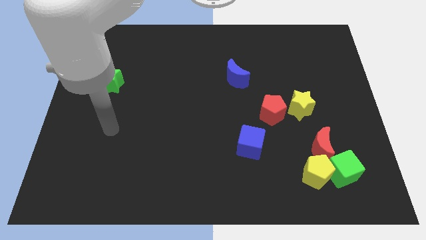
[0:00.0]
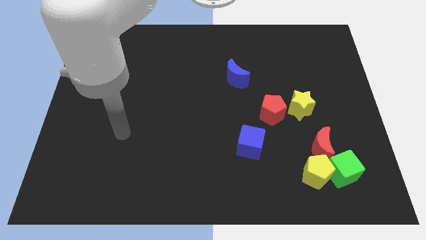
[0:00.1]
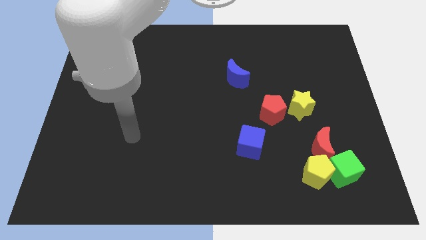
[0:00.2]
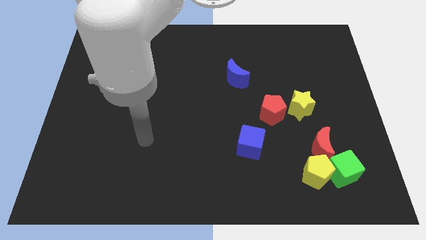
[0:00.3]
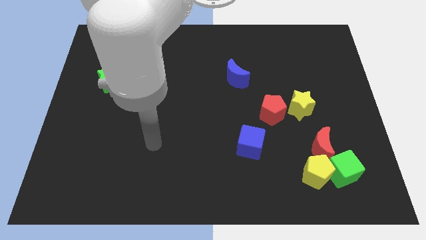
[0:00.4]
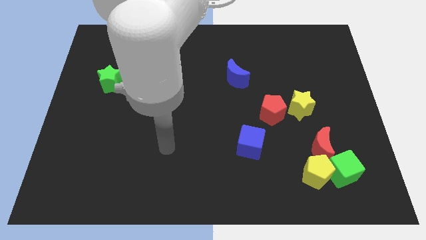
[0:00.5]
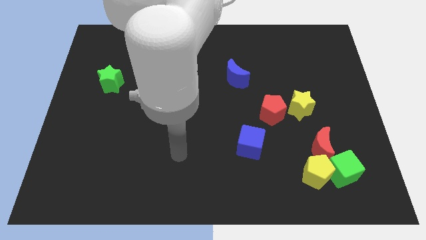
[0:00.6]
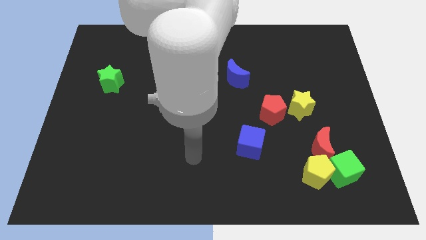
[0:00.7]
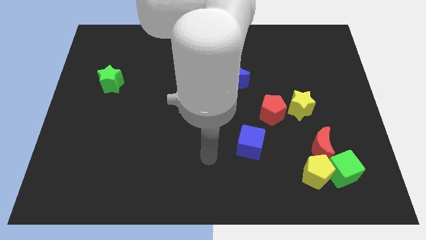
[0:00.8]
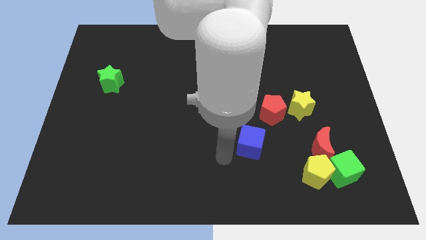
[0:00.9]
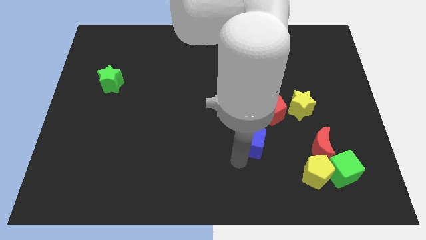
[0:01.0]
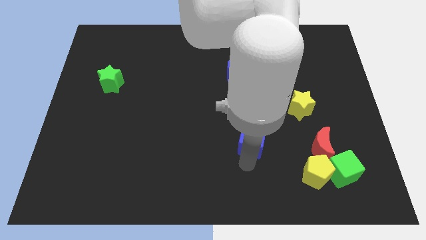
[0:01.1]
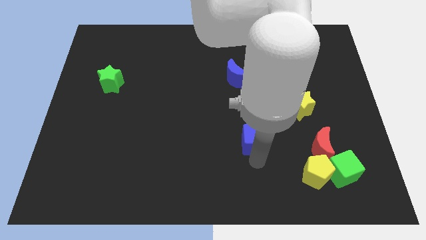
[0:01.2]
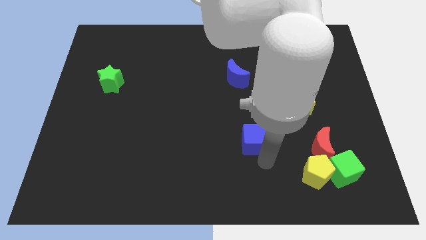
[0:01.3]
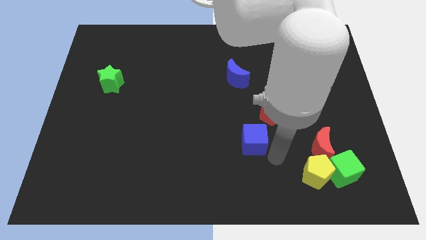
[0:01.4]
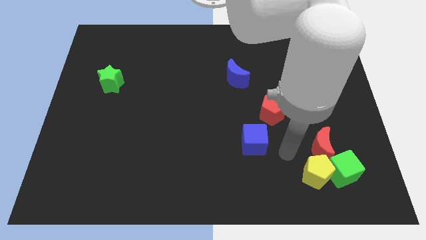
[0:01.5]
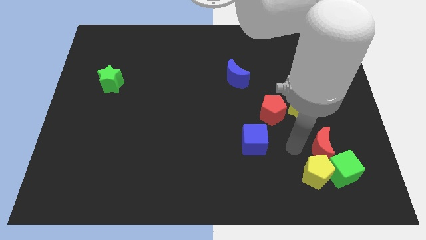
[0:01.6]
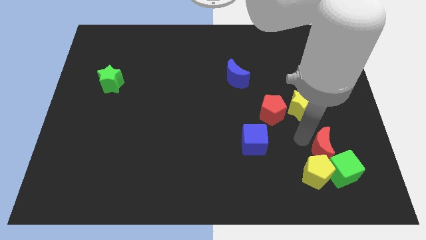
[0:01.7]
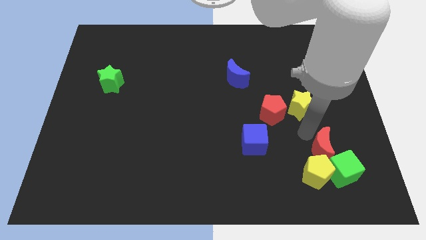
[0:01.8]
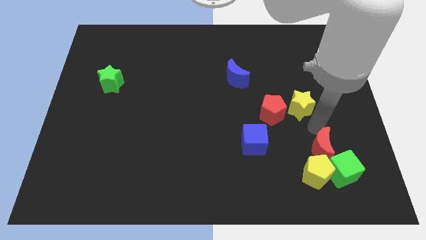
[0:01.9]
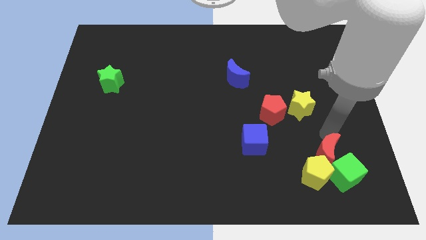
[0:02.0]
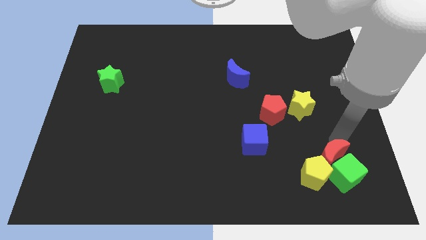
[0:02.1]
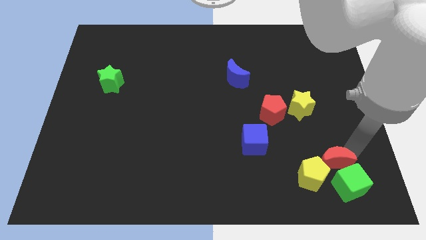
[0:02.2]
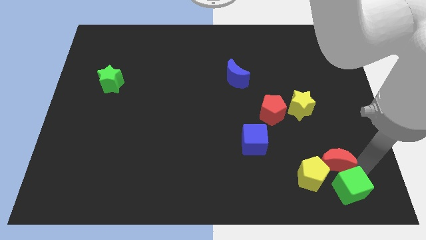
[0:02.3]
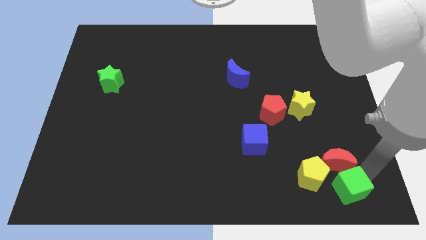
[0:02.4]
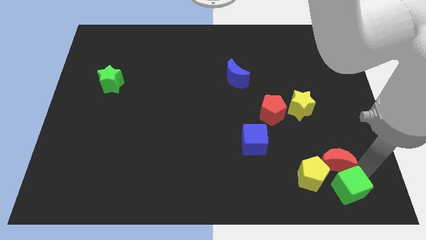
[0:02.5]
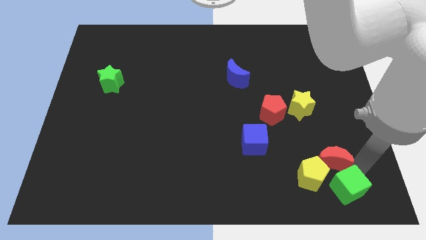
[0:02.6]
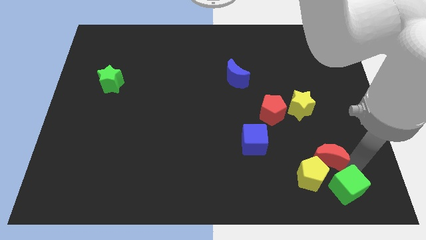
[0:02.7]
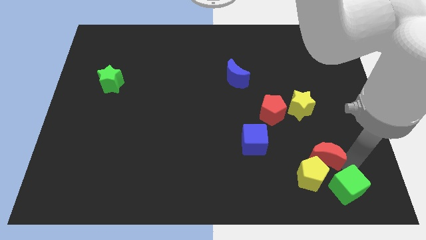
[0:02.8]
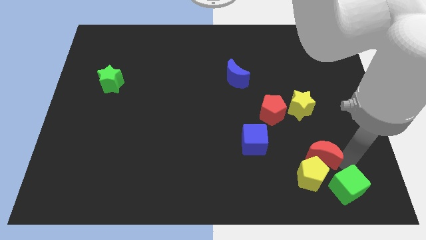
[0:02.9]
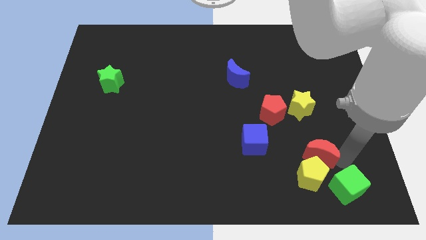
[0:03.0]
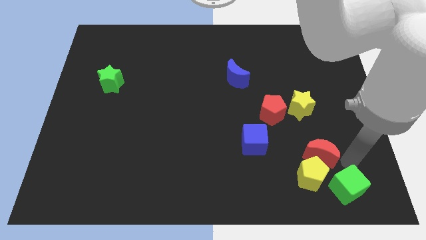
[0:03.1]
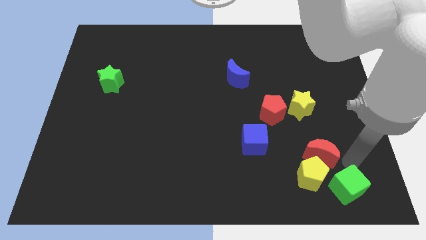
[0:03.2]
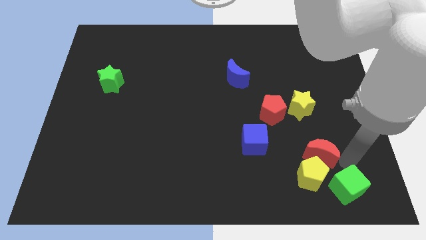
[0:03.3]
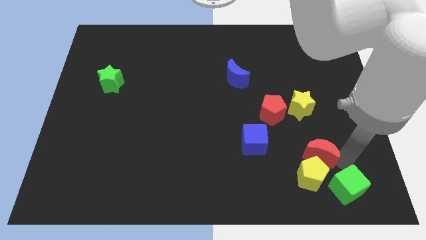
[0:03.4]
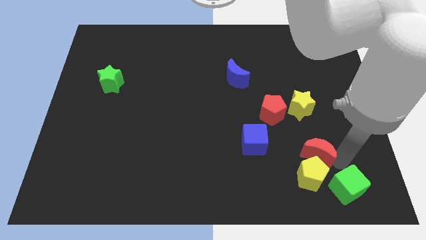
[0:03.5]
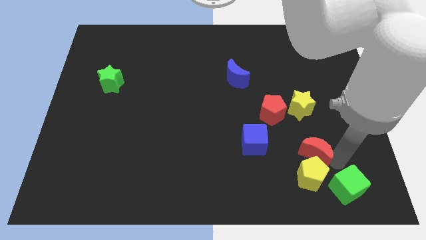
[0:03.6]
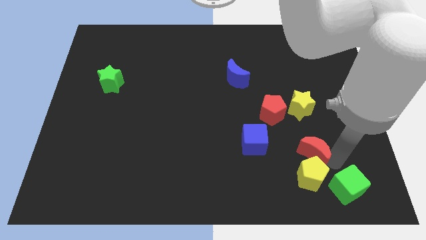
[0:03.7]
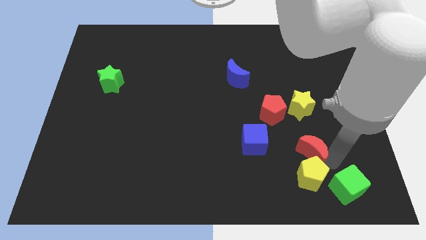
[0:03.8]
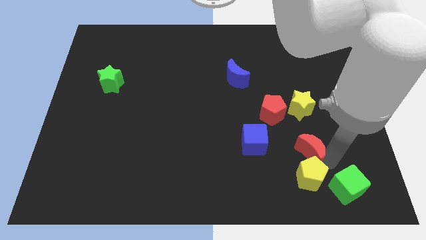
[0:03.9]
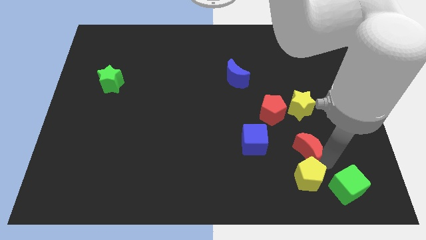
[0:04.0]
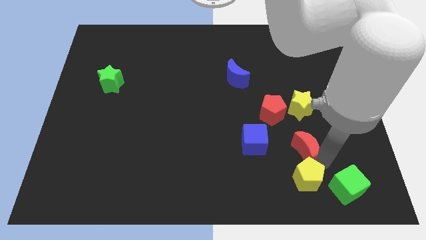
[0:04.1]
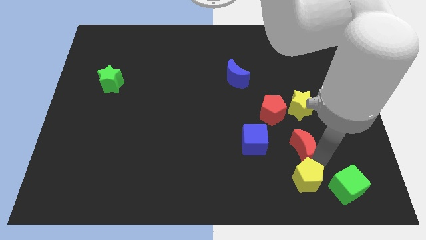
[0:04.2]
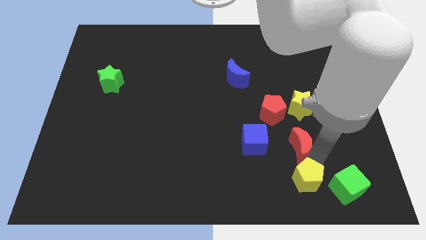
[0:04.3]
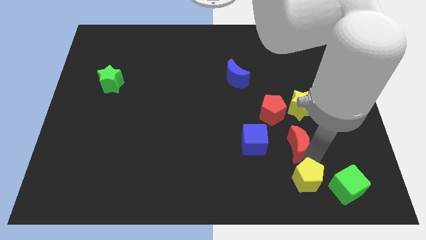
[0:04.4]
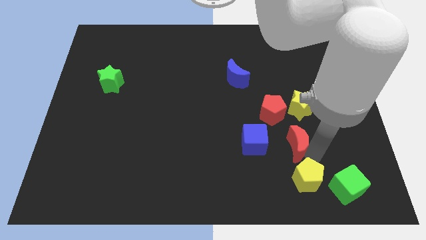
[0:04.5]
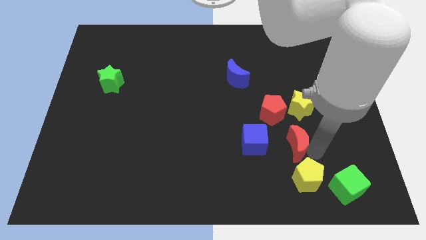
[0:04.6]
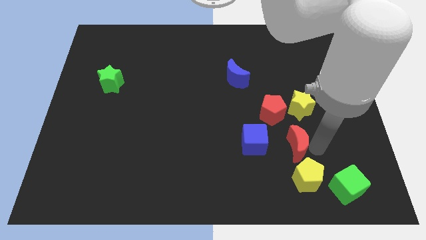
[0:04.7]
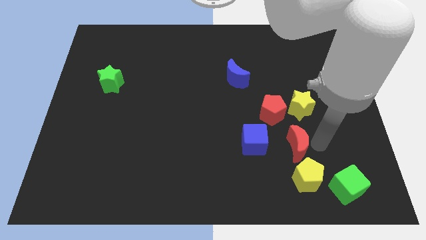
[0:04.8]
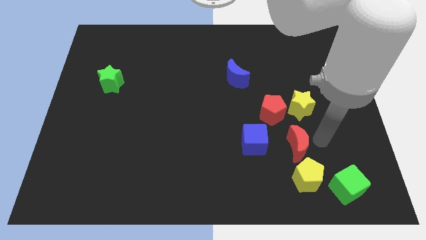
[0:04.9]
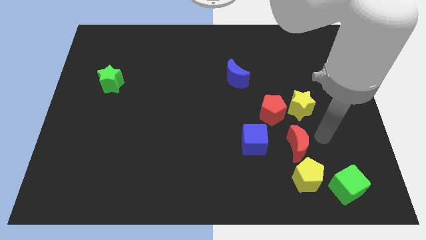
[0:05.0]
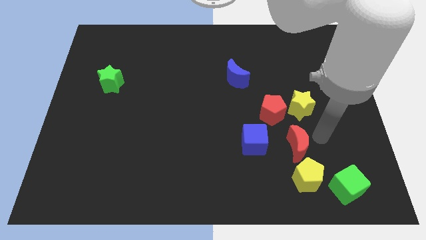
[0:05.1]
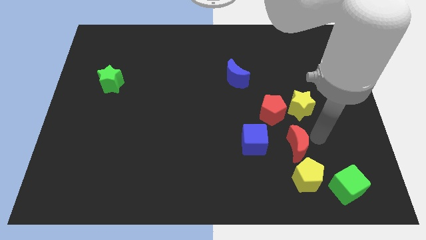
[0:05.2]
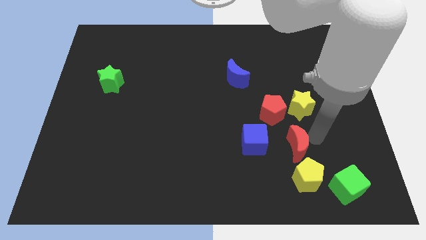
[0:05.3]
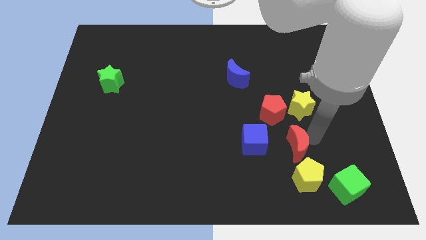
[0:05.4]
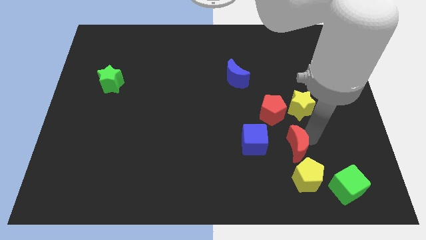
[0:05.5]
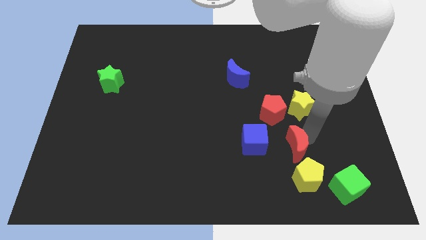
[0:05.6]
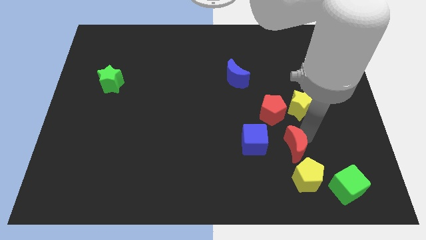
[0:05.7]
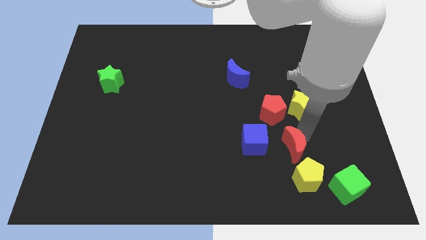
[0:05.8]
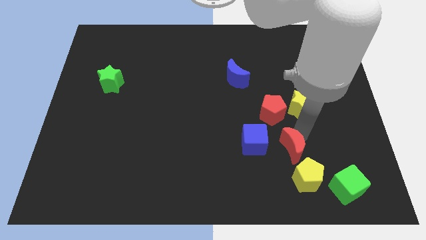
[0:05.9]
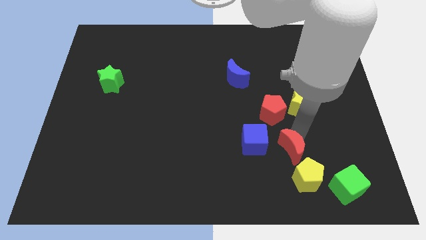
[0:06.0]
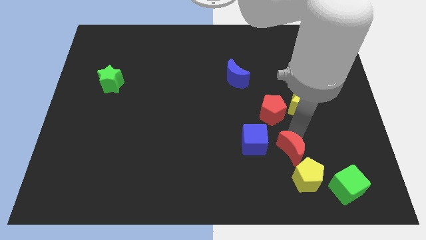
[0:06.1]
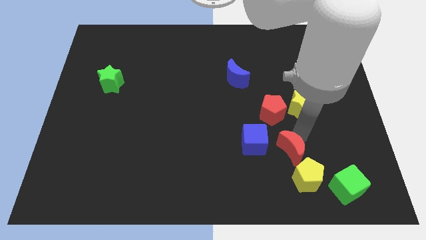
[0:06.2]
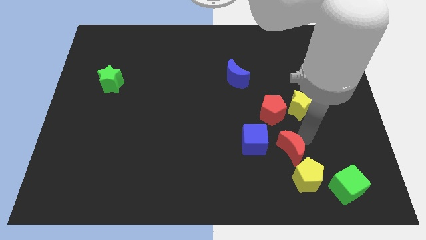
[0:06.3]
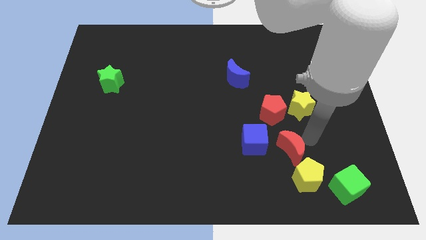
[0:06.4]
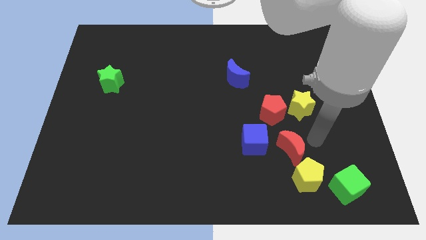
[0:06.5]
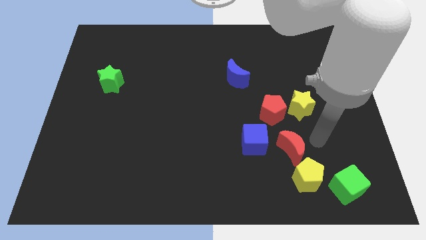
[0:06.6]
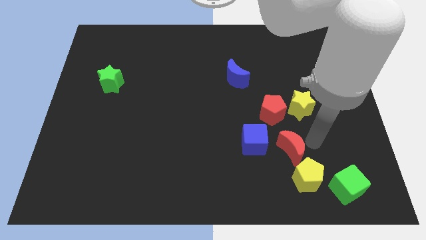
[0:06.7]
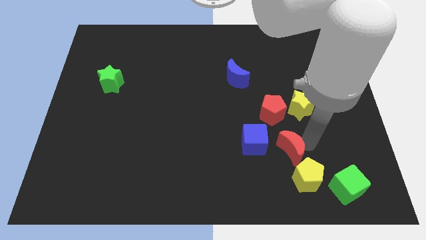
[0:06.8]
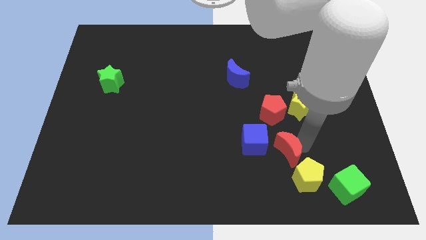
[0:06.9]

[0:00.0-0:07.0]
slightly move the red moon to the left

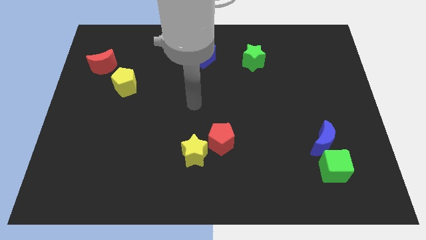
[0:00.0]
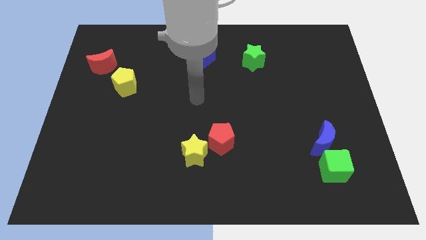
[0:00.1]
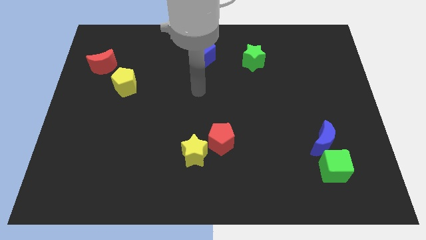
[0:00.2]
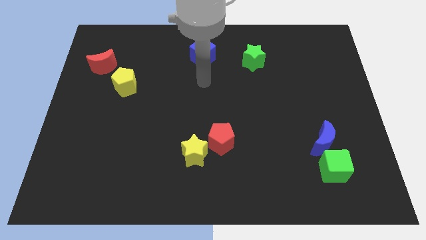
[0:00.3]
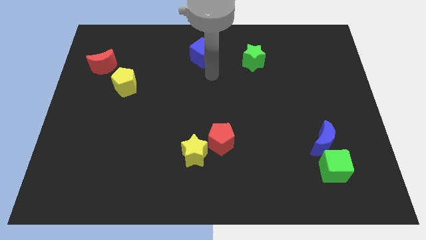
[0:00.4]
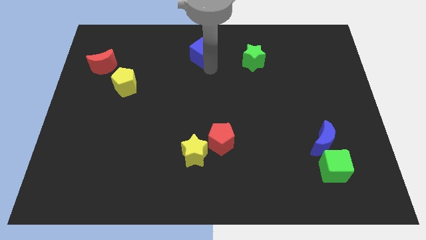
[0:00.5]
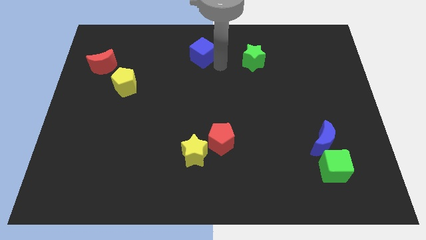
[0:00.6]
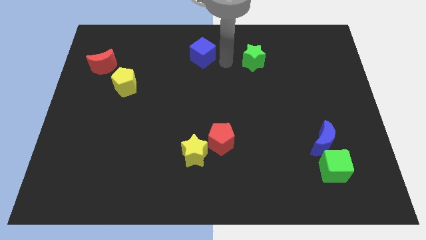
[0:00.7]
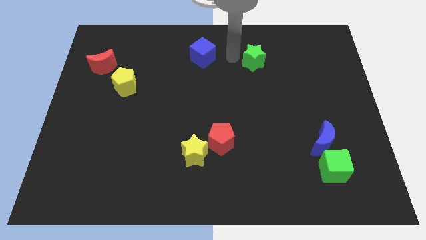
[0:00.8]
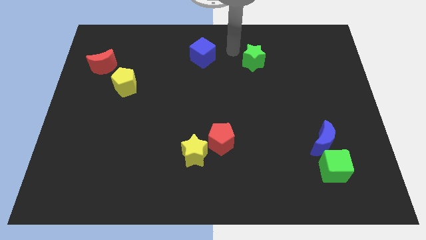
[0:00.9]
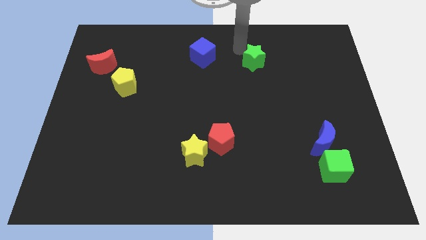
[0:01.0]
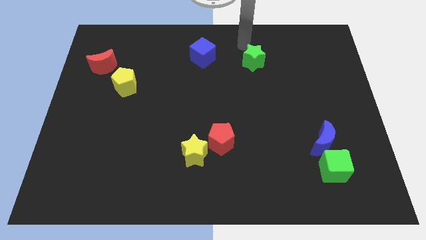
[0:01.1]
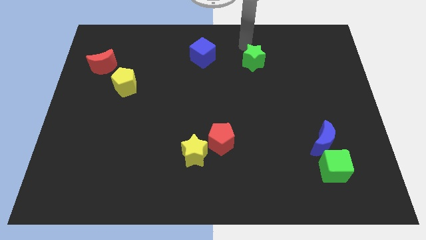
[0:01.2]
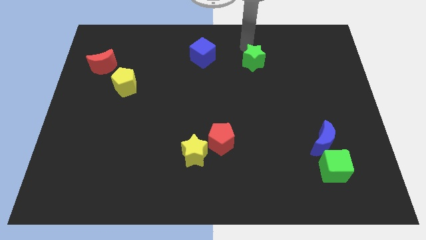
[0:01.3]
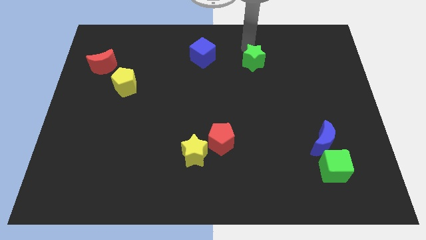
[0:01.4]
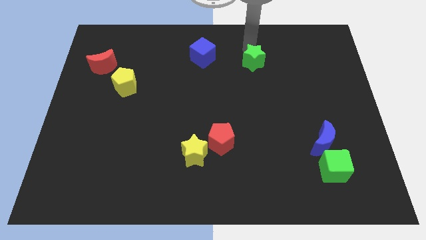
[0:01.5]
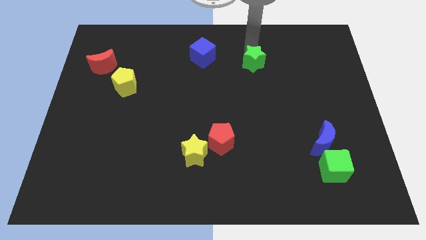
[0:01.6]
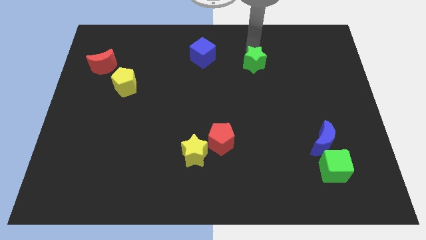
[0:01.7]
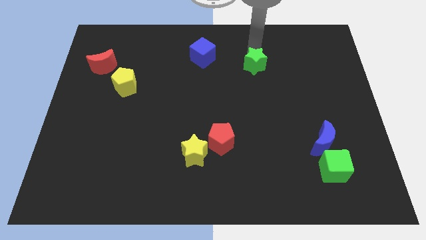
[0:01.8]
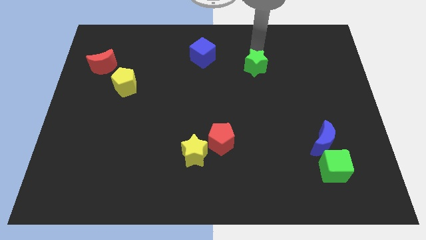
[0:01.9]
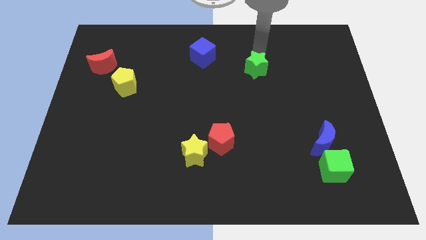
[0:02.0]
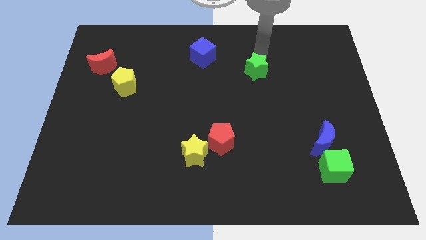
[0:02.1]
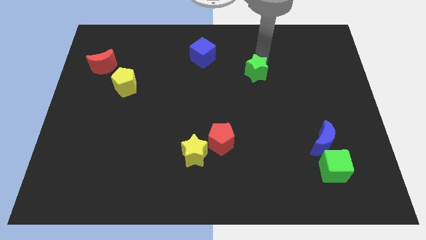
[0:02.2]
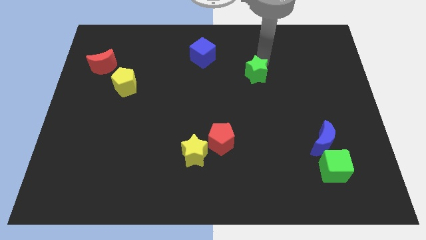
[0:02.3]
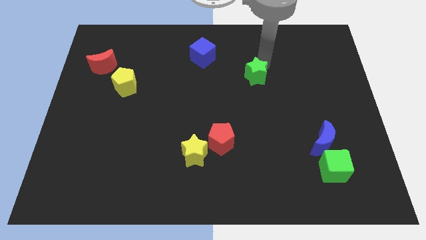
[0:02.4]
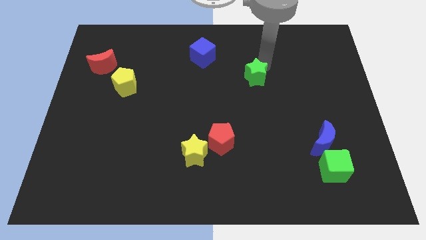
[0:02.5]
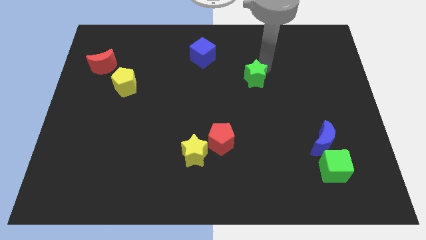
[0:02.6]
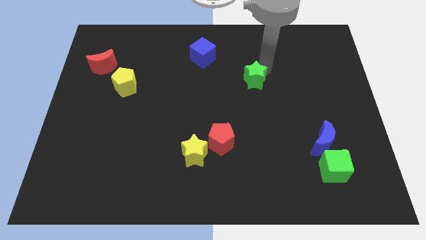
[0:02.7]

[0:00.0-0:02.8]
slightly push the green star downwards
